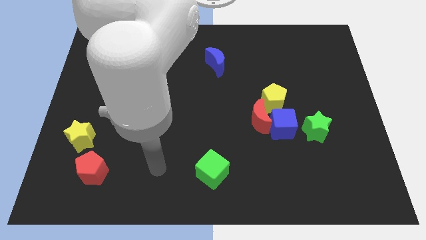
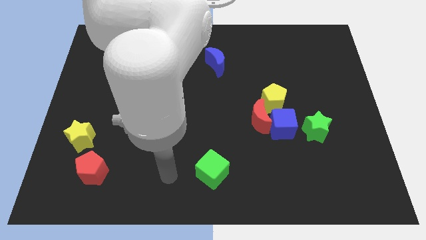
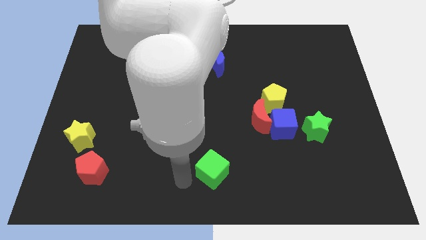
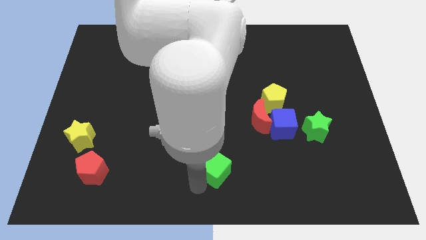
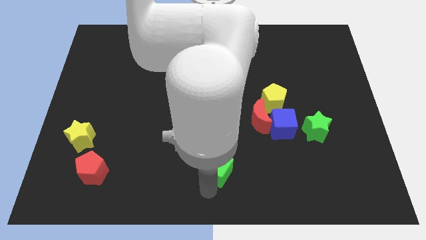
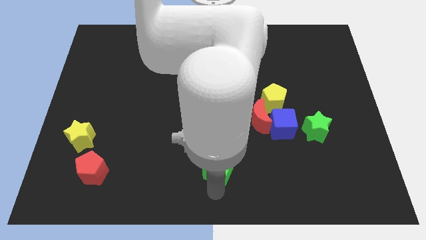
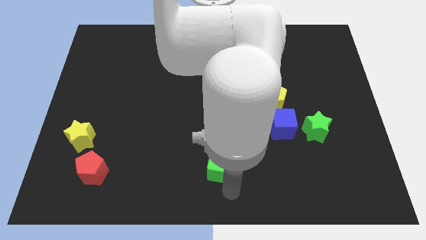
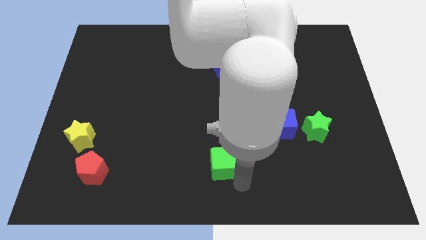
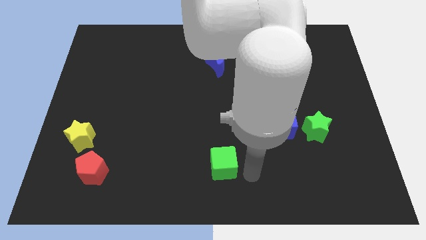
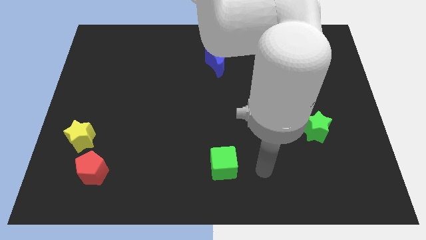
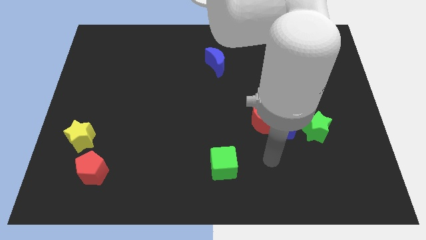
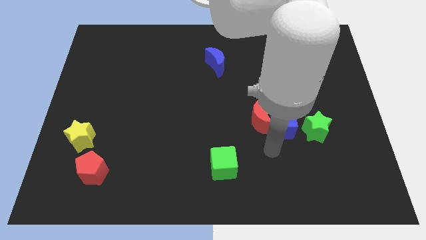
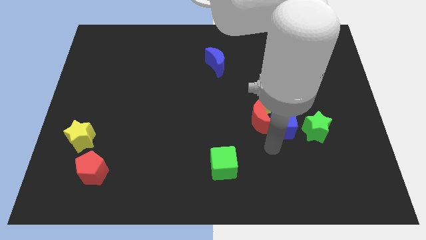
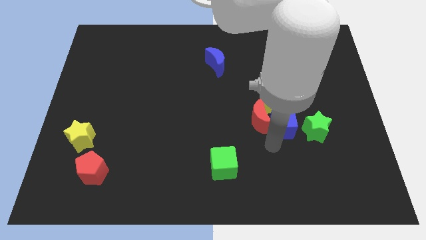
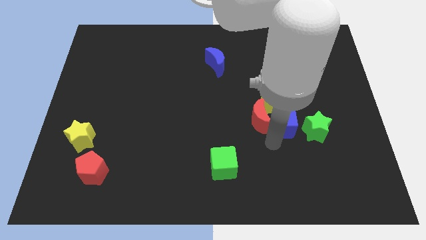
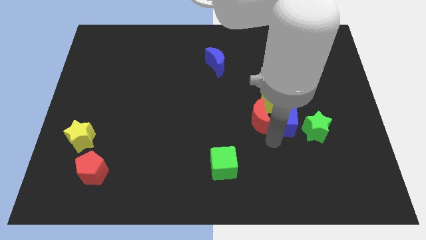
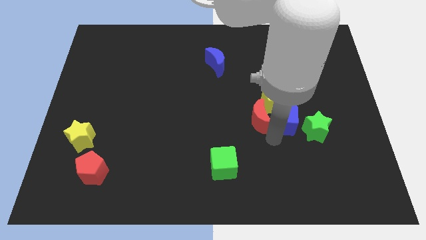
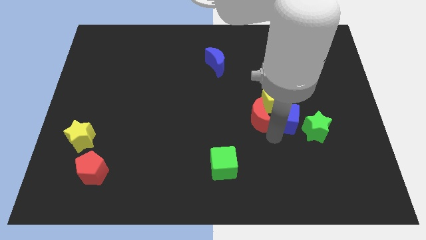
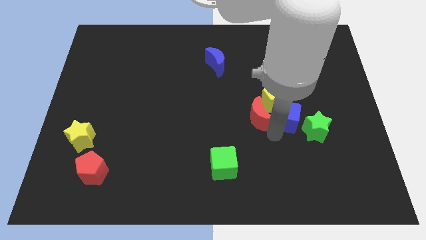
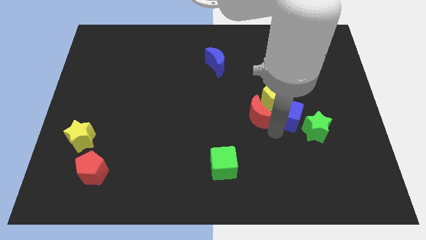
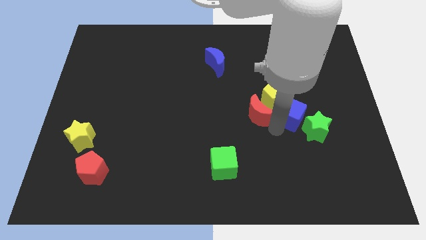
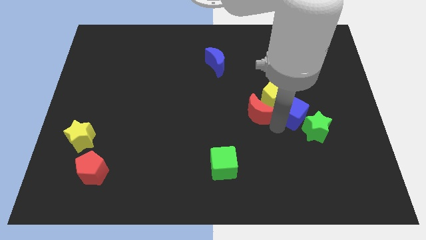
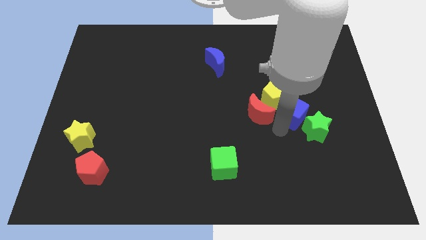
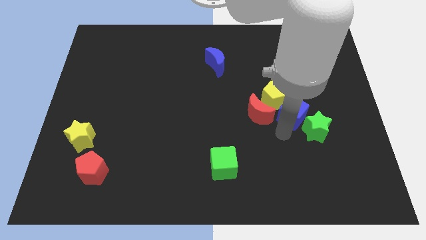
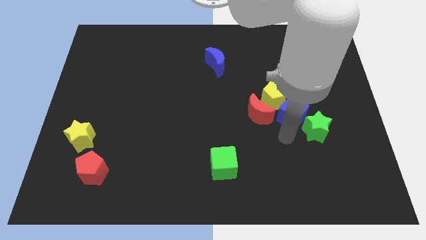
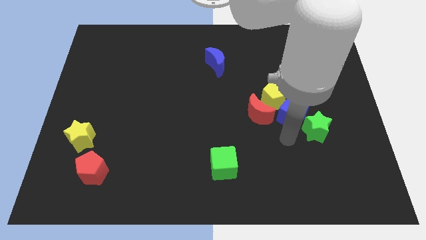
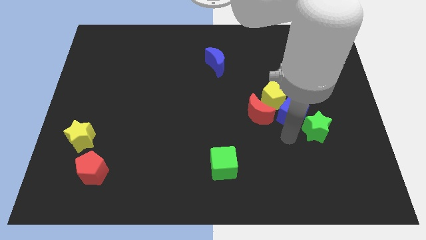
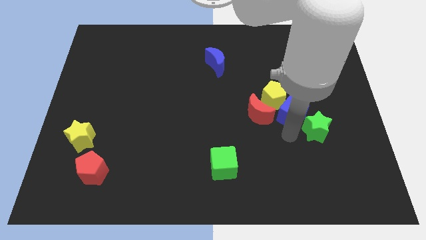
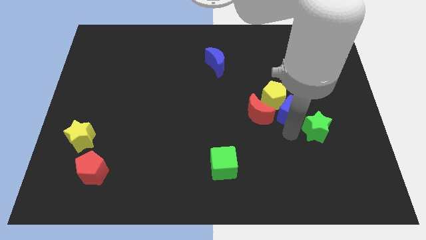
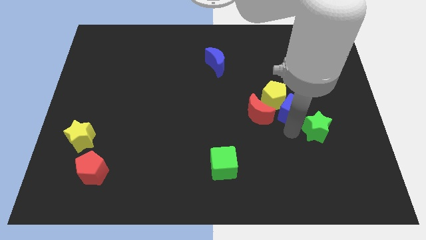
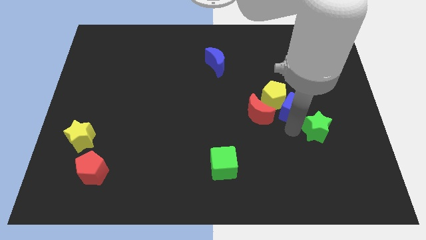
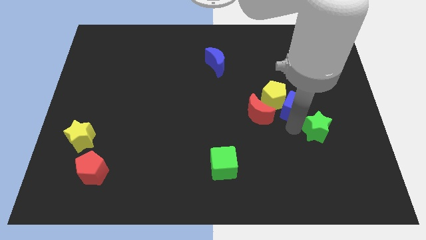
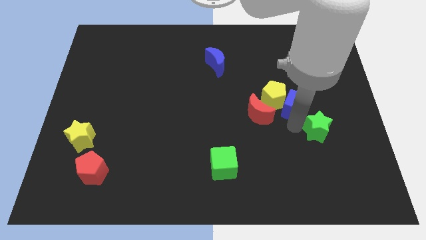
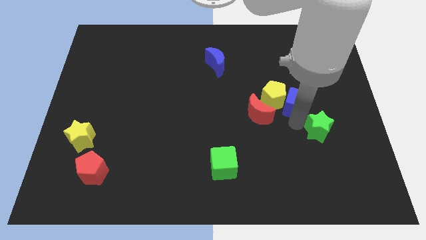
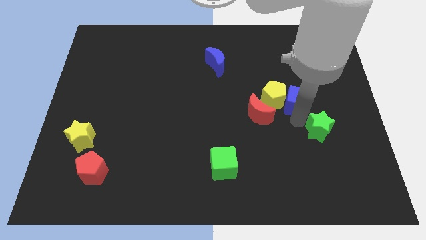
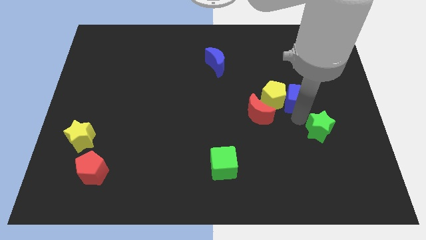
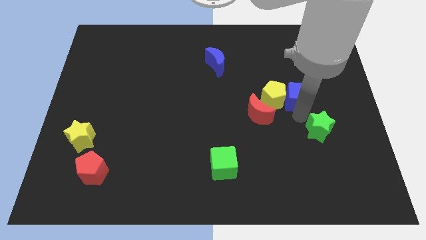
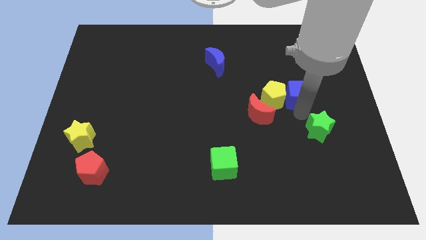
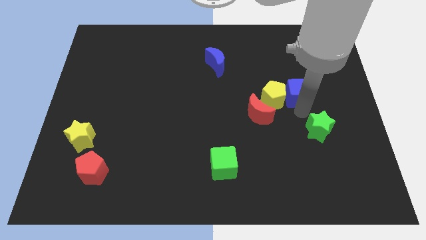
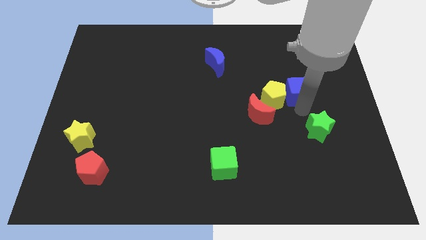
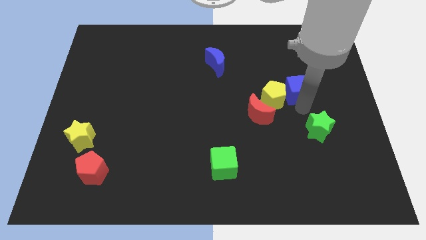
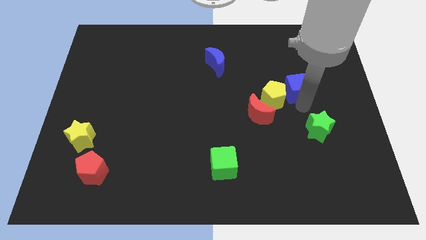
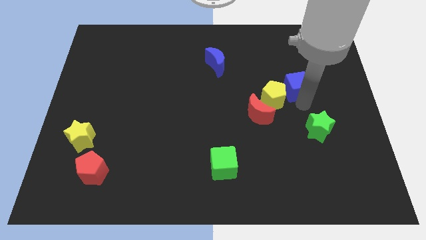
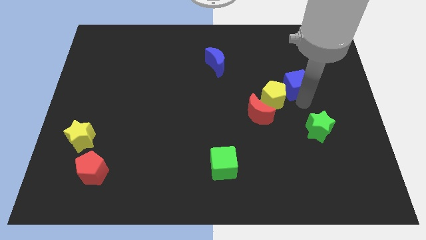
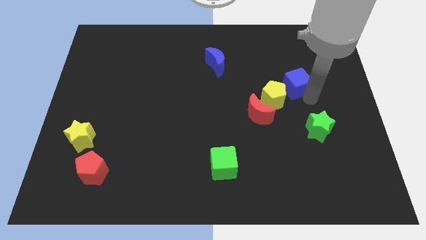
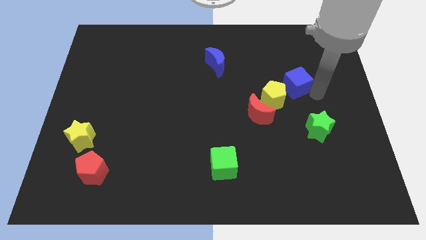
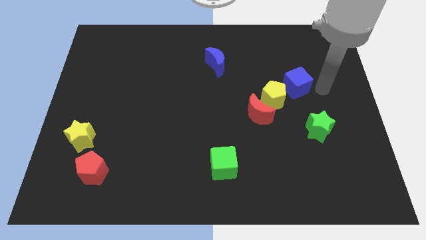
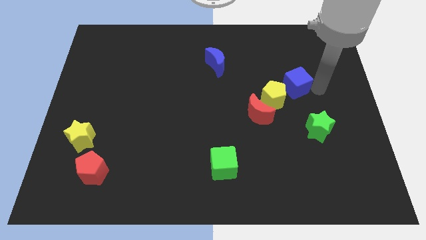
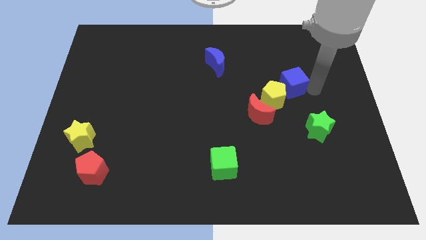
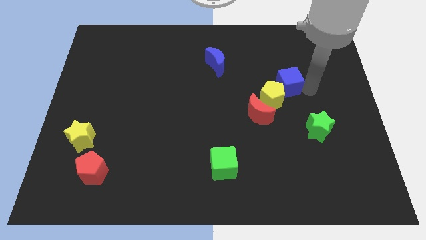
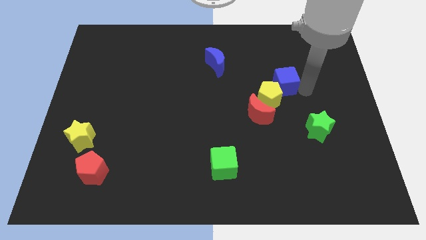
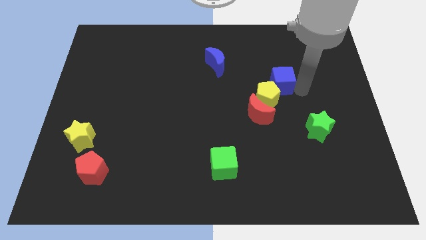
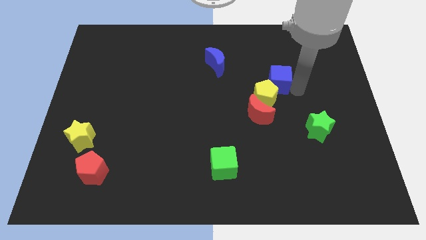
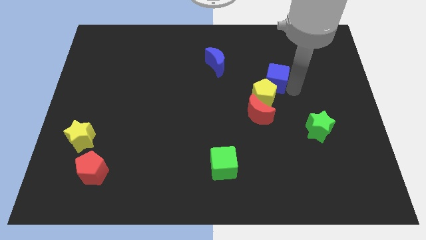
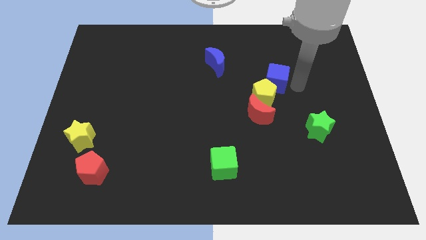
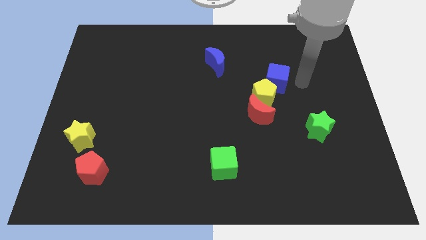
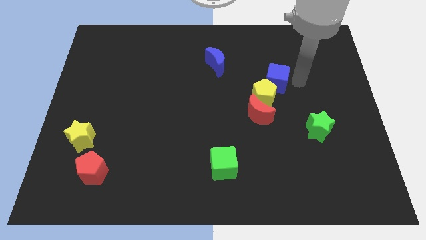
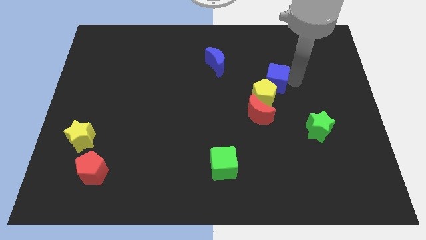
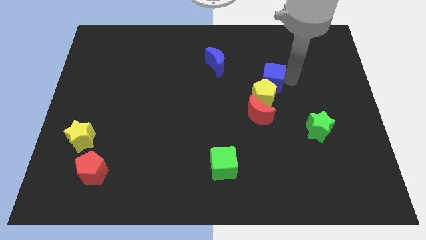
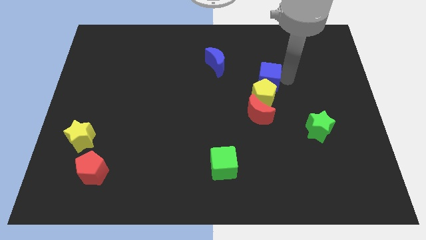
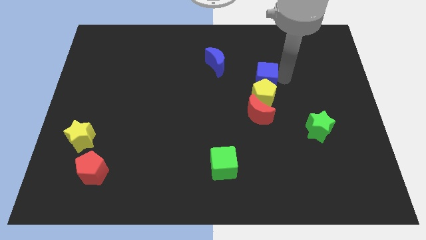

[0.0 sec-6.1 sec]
push the blue cube diagonally up and to the left of the yellow pentagon

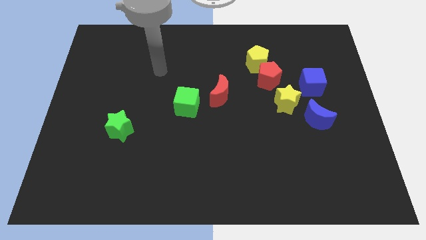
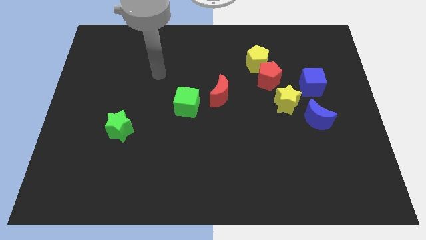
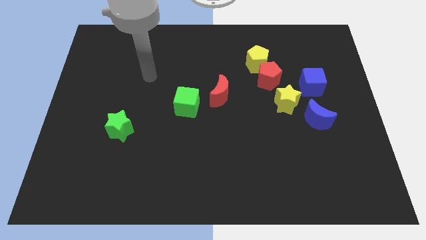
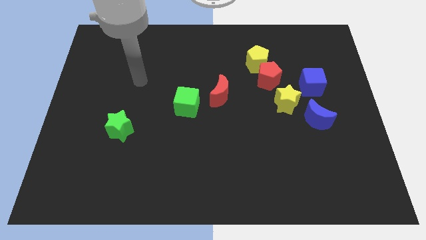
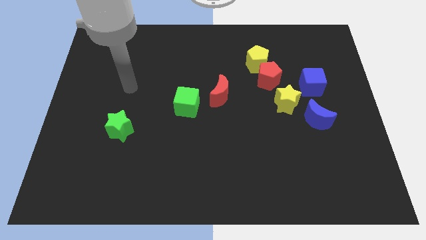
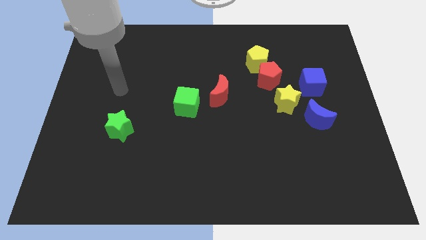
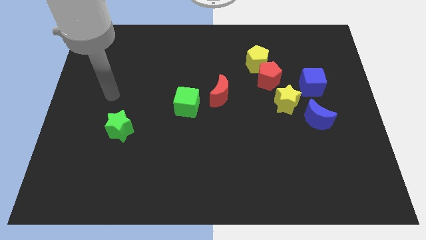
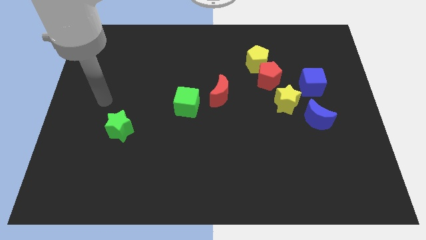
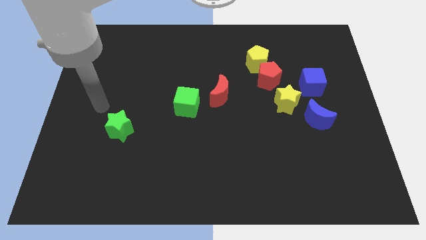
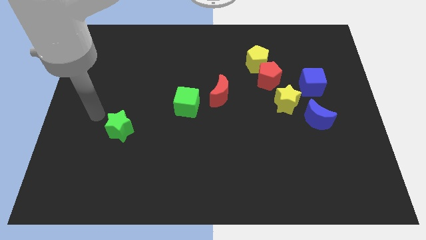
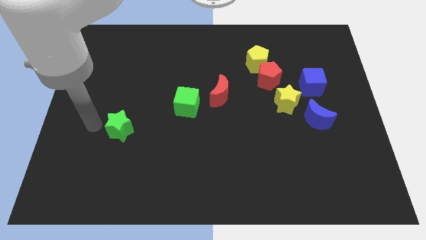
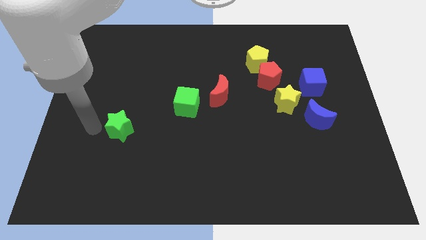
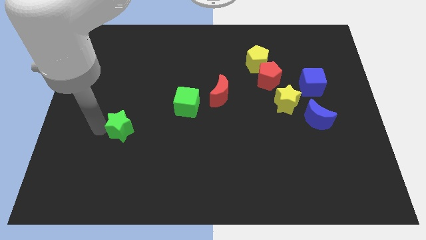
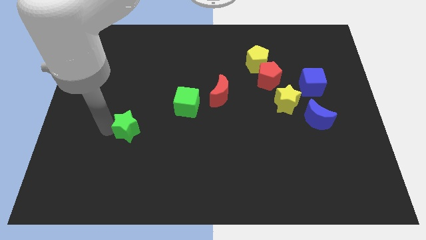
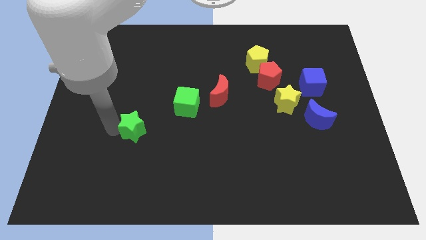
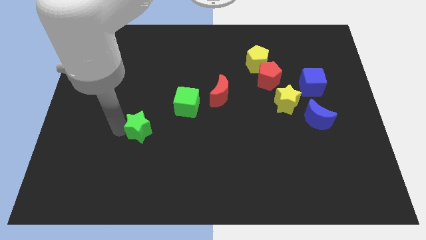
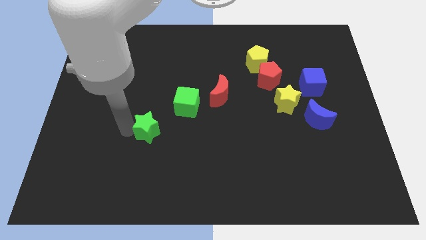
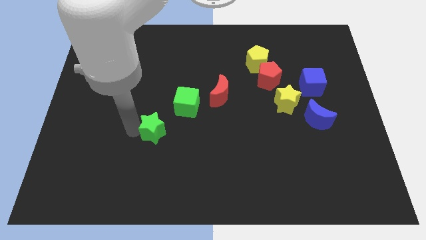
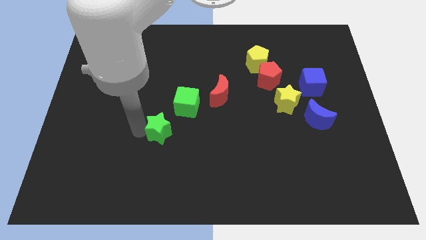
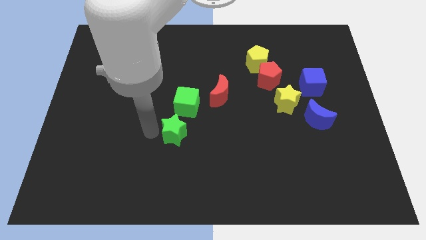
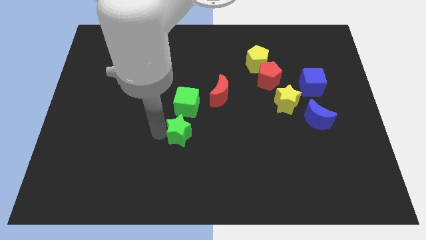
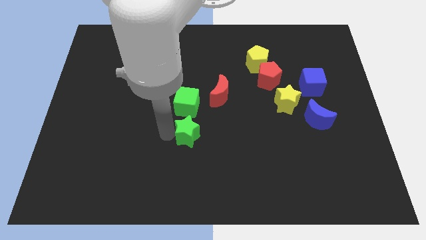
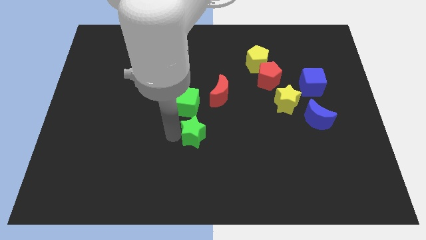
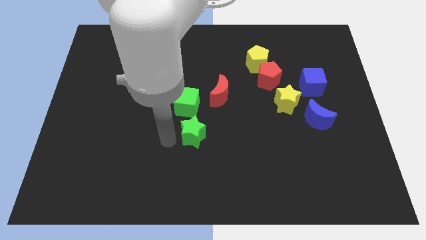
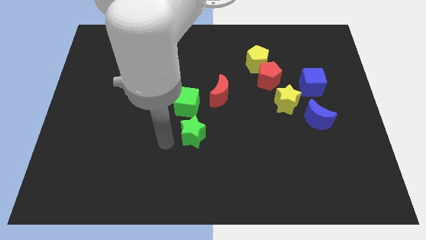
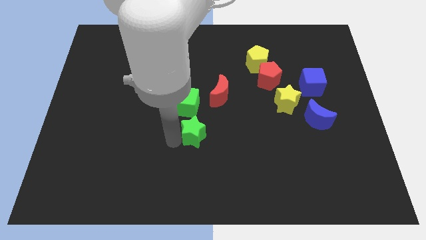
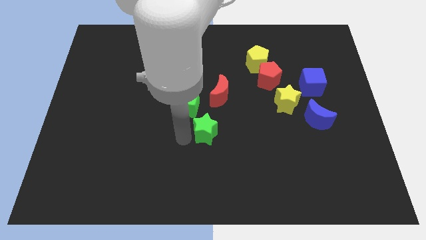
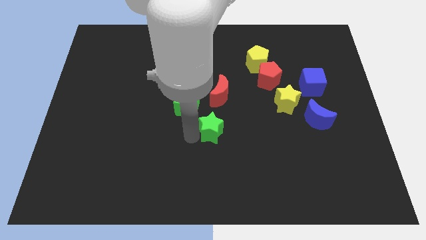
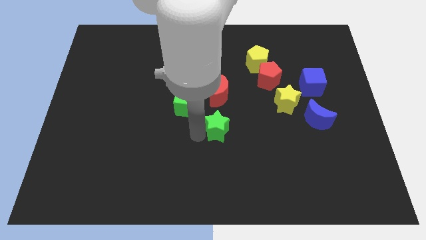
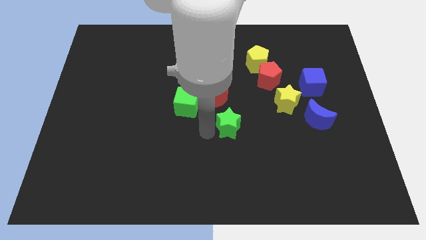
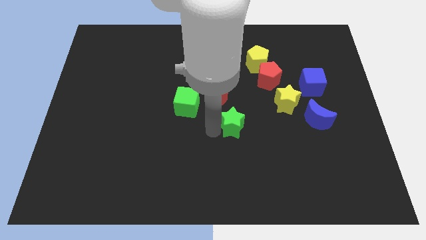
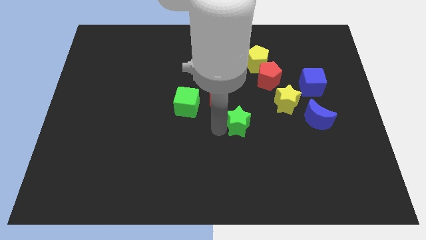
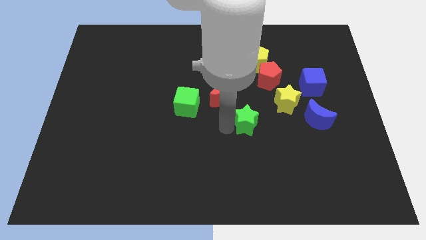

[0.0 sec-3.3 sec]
push the green star to the left of the blue moon
